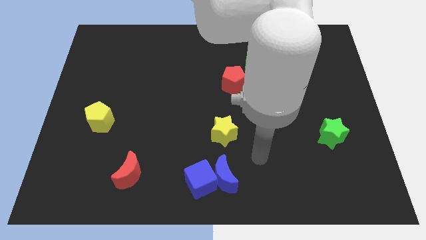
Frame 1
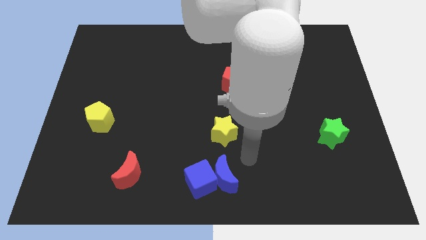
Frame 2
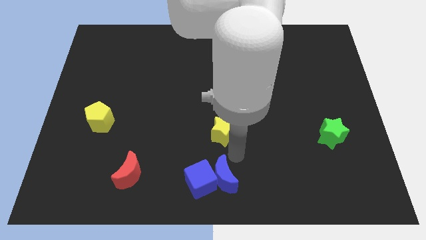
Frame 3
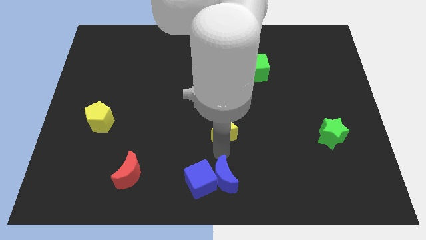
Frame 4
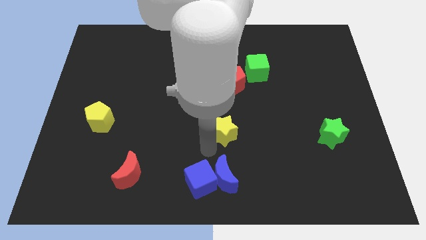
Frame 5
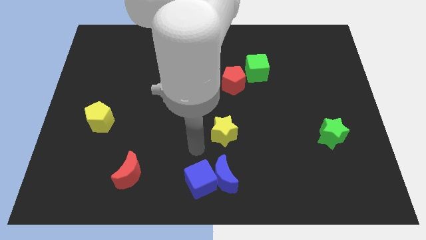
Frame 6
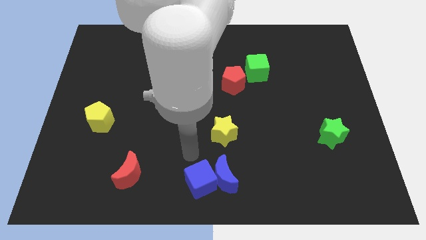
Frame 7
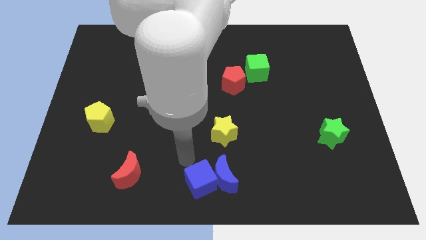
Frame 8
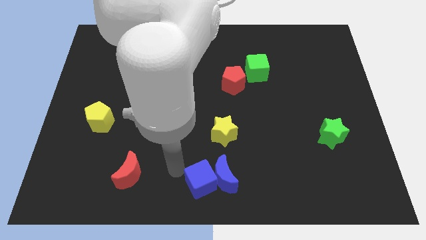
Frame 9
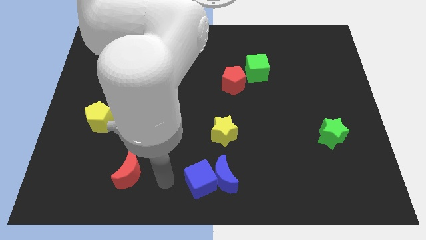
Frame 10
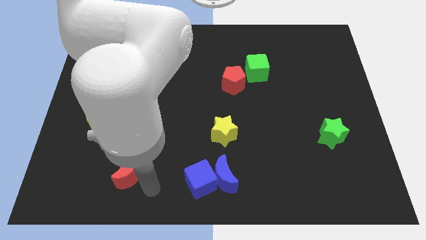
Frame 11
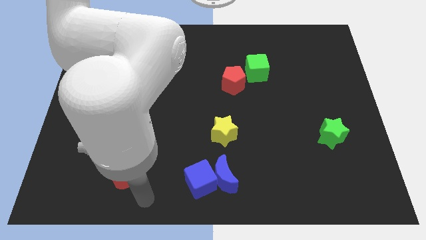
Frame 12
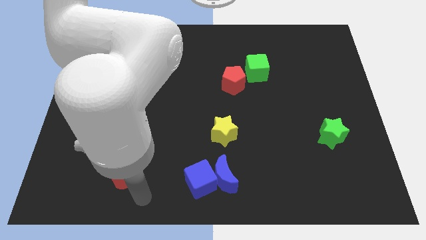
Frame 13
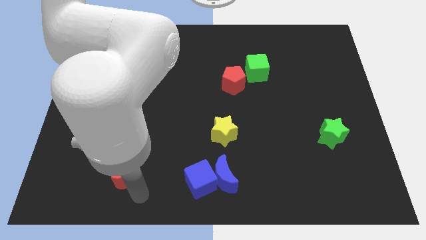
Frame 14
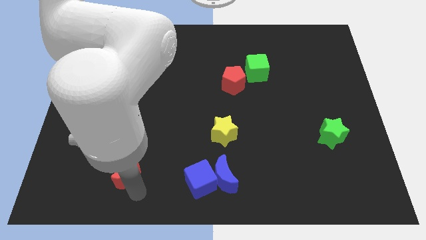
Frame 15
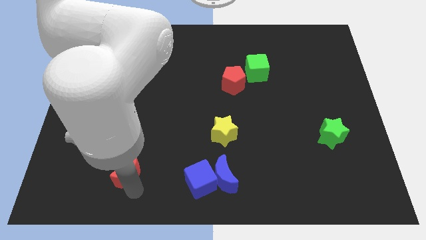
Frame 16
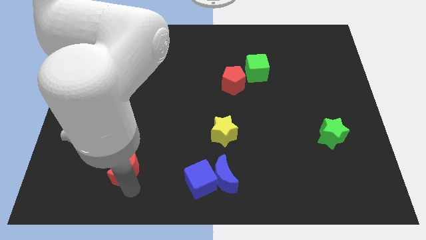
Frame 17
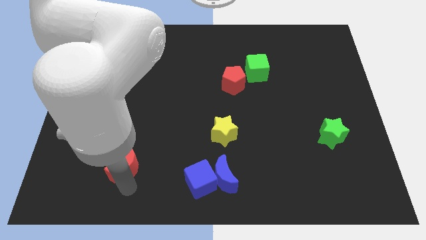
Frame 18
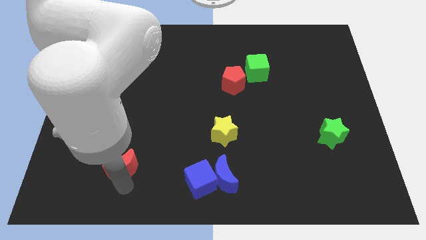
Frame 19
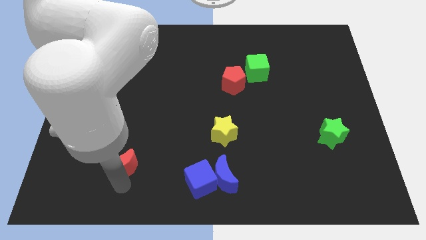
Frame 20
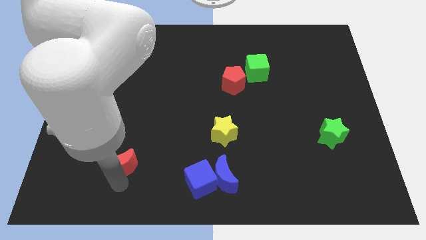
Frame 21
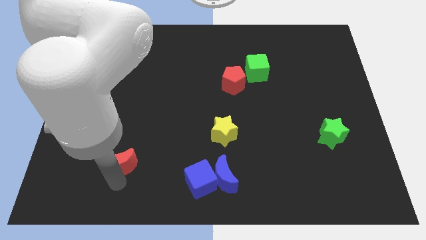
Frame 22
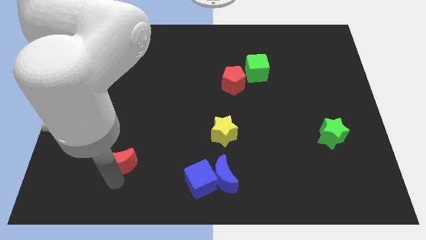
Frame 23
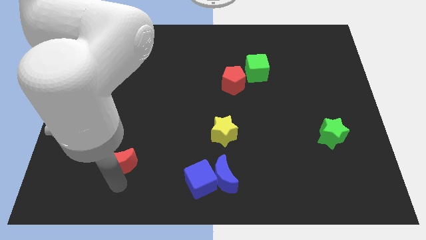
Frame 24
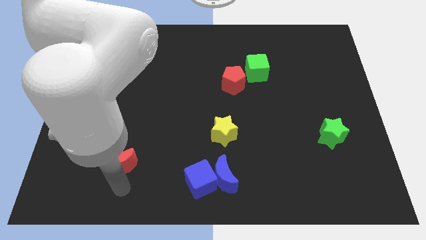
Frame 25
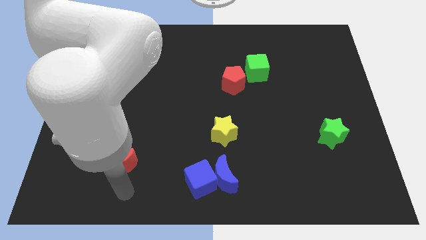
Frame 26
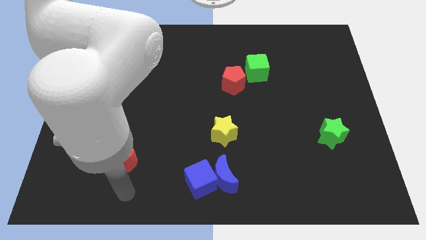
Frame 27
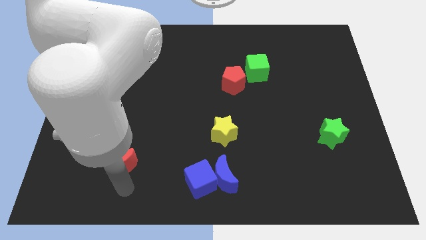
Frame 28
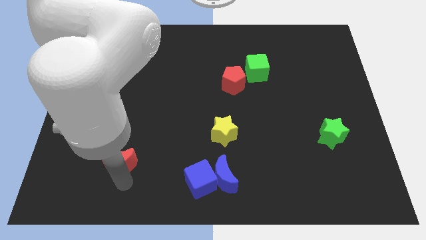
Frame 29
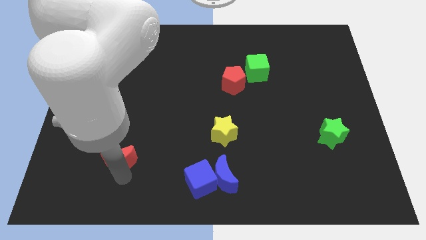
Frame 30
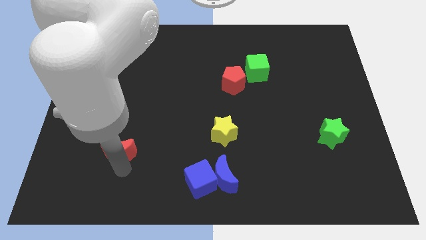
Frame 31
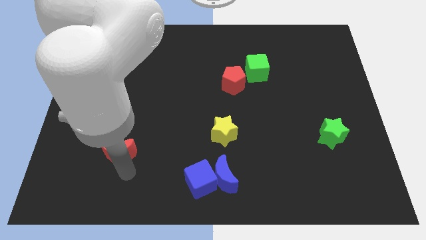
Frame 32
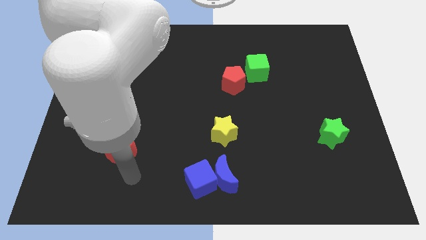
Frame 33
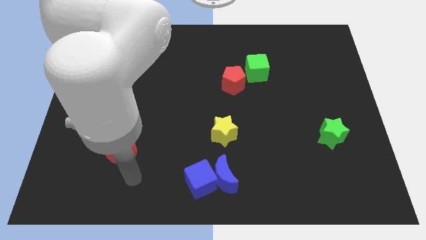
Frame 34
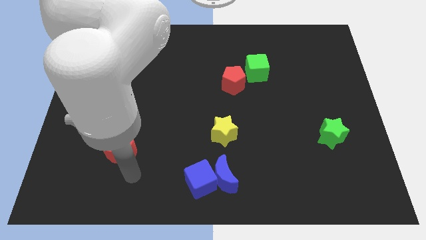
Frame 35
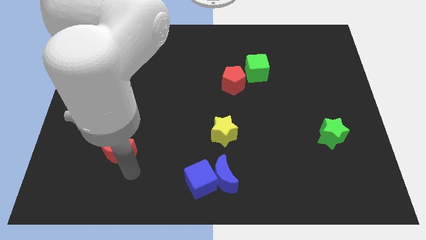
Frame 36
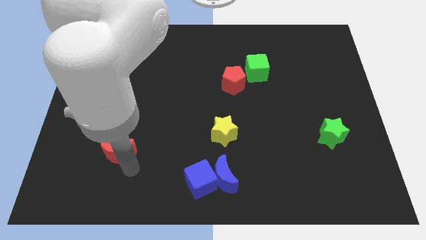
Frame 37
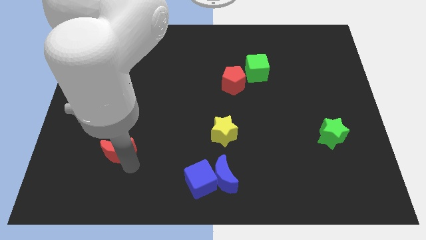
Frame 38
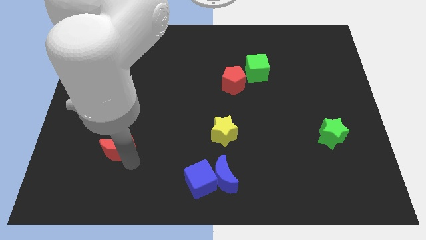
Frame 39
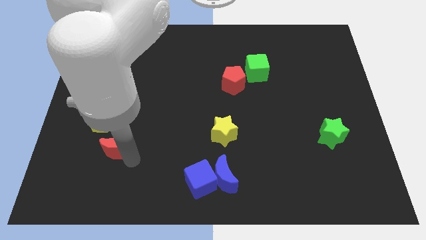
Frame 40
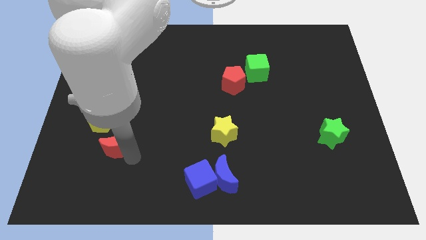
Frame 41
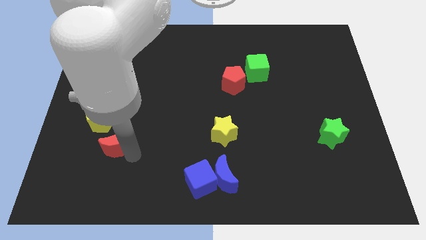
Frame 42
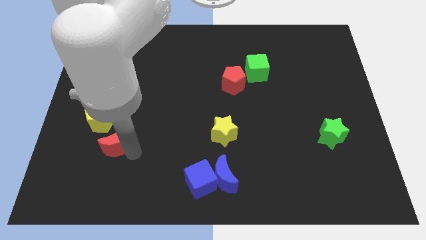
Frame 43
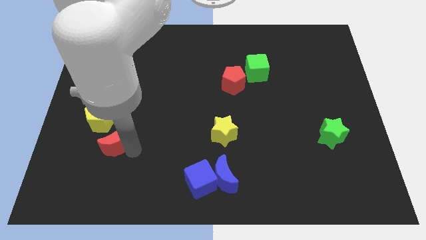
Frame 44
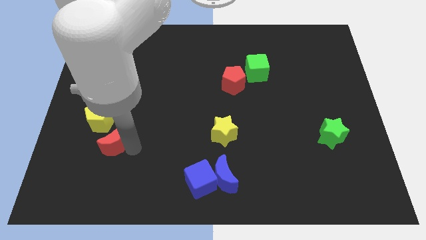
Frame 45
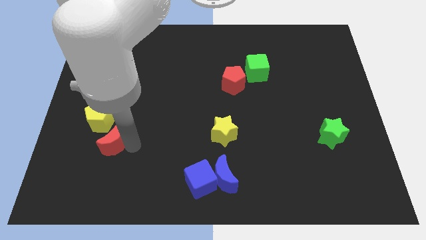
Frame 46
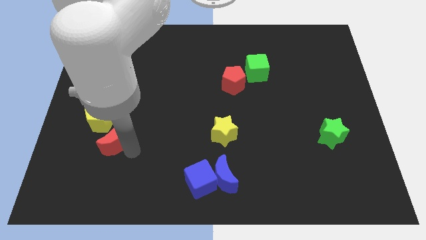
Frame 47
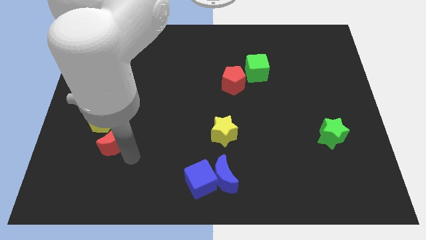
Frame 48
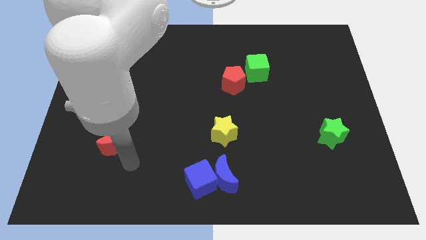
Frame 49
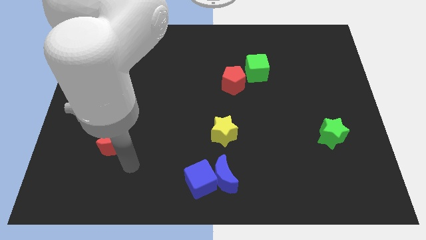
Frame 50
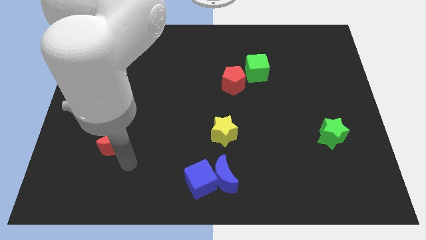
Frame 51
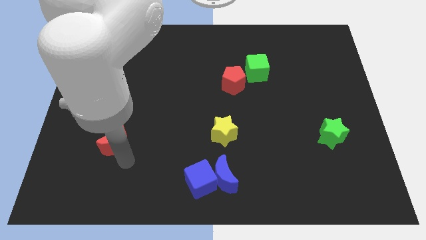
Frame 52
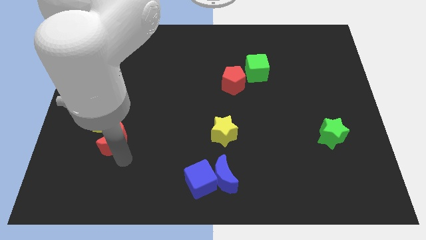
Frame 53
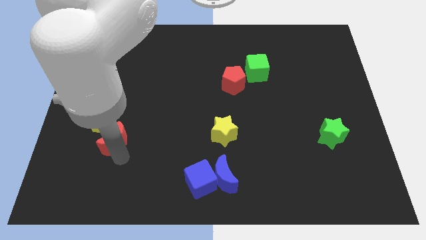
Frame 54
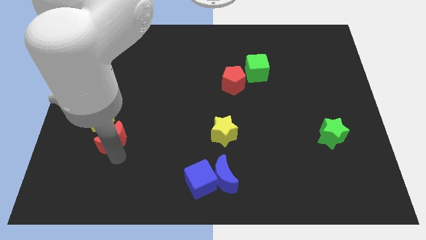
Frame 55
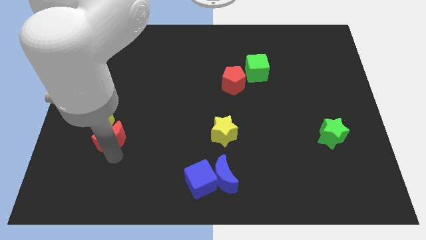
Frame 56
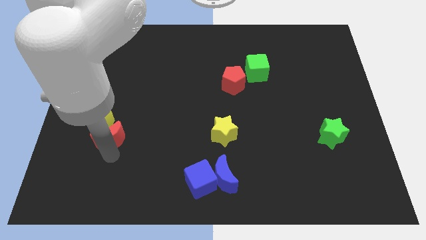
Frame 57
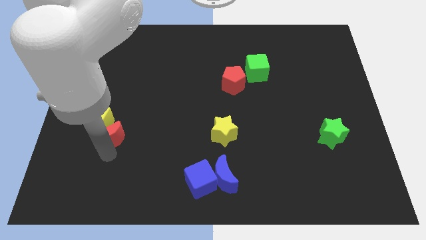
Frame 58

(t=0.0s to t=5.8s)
move the red moon to the yellow pentagon
